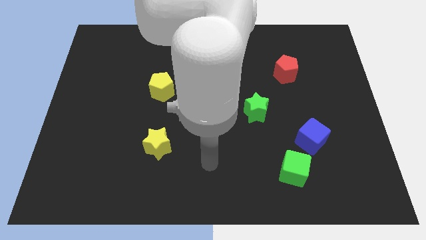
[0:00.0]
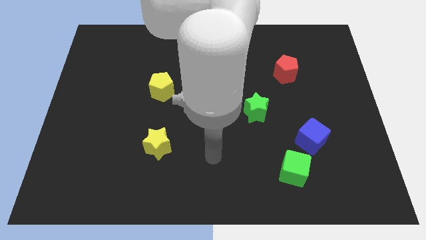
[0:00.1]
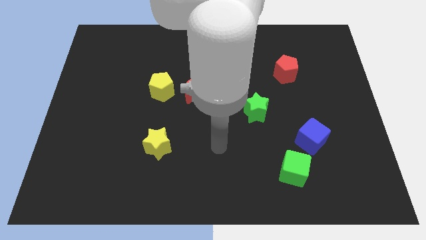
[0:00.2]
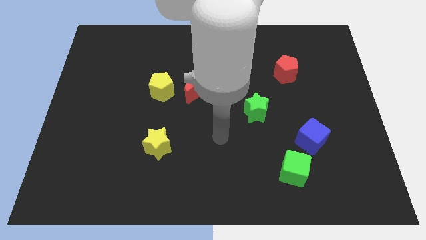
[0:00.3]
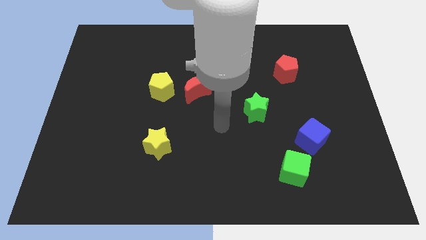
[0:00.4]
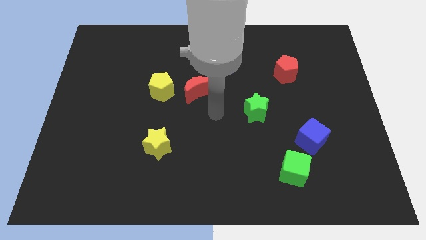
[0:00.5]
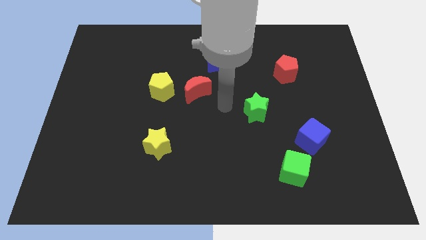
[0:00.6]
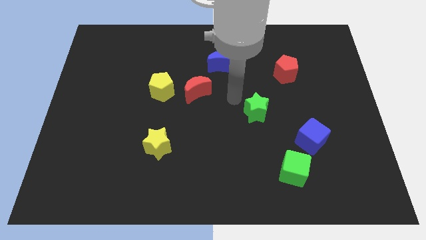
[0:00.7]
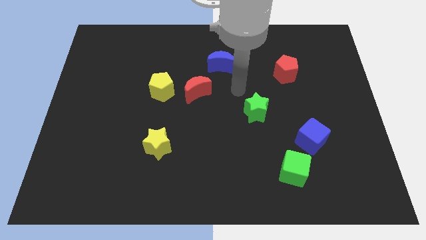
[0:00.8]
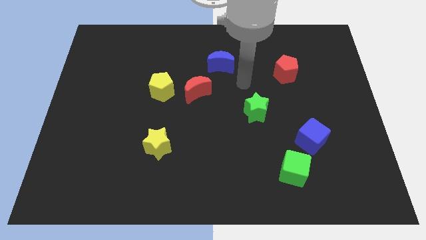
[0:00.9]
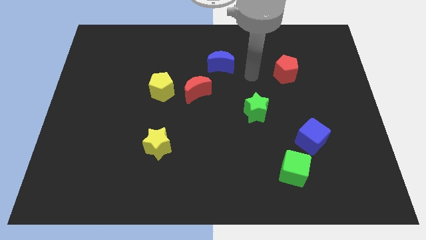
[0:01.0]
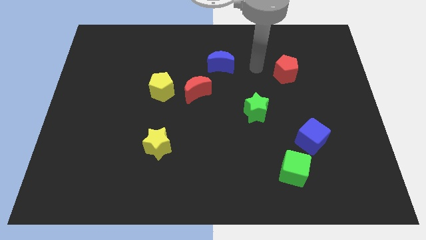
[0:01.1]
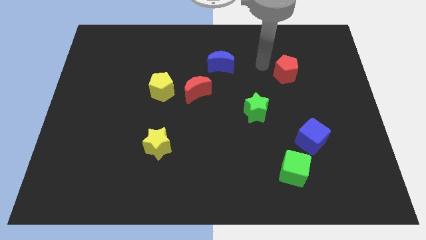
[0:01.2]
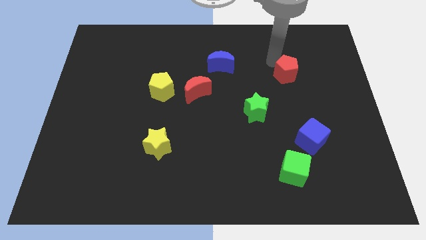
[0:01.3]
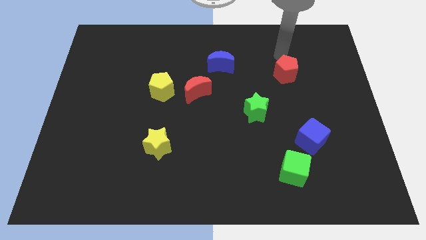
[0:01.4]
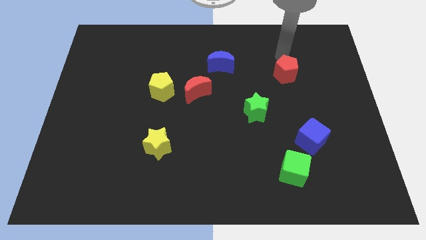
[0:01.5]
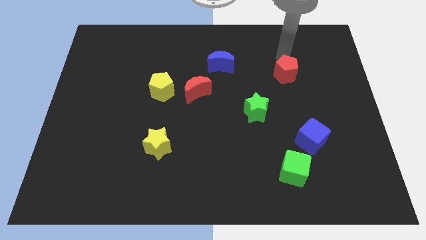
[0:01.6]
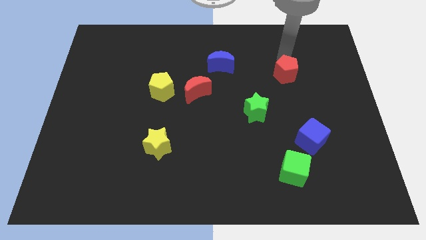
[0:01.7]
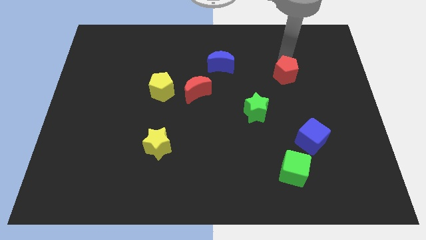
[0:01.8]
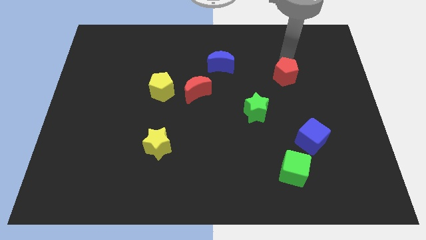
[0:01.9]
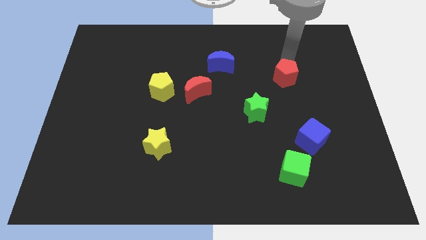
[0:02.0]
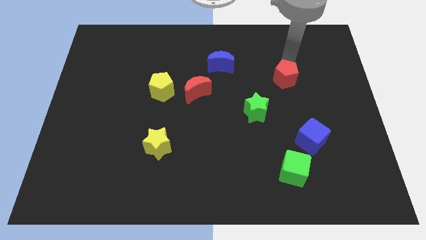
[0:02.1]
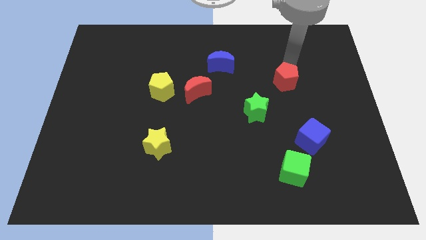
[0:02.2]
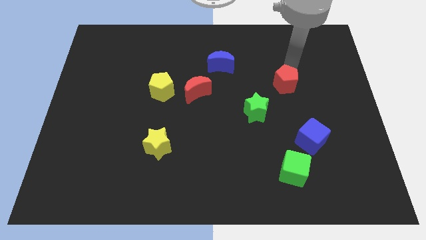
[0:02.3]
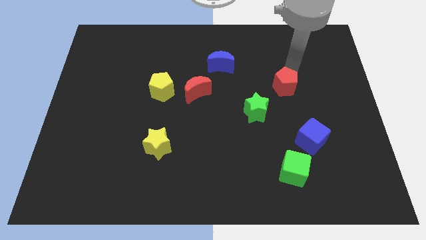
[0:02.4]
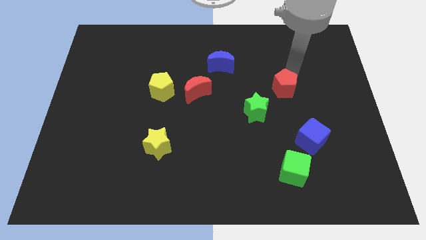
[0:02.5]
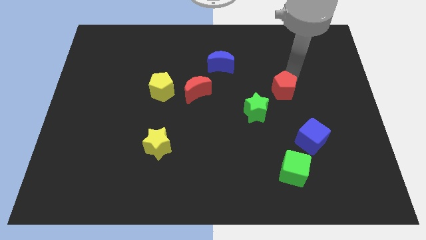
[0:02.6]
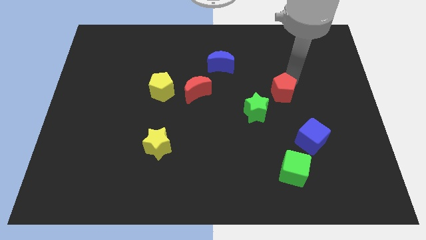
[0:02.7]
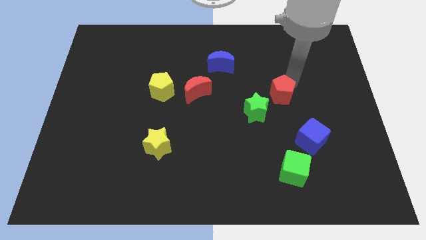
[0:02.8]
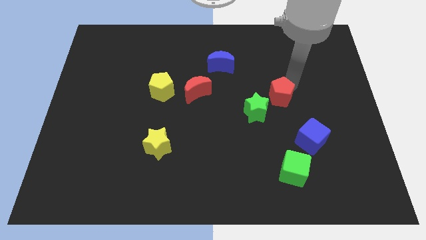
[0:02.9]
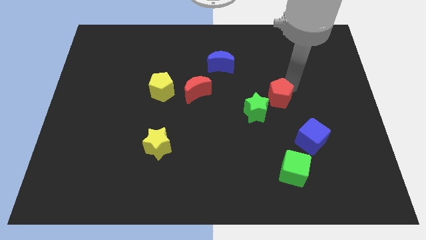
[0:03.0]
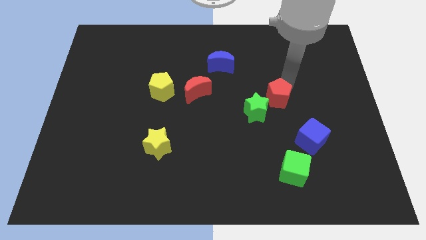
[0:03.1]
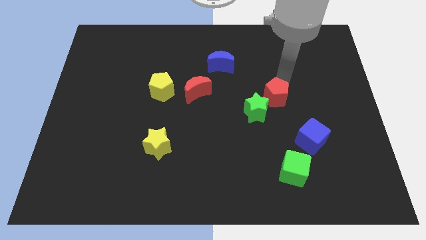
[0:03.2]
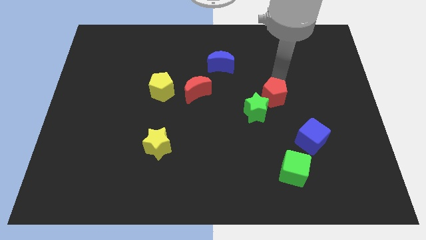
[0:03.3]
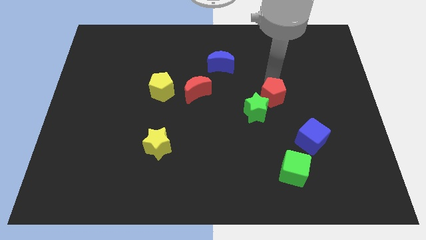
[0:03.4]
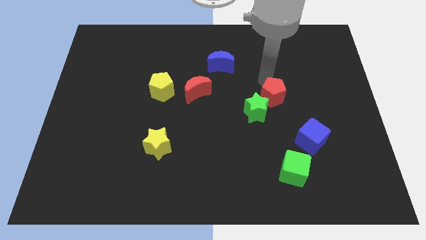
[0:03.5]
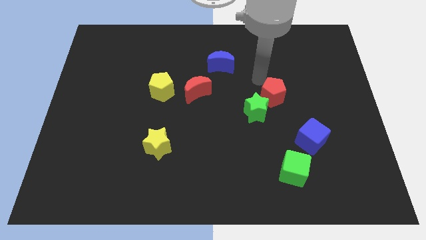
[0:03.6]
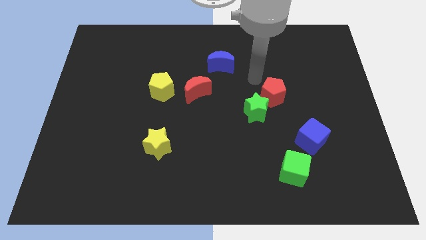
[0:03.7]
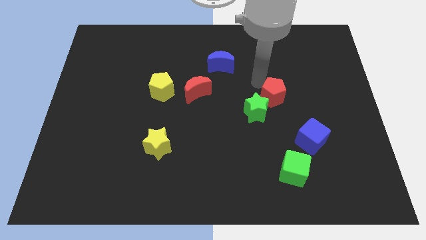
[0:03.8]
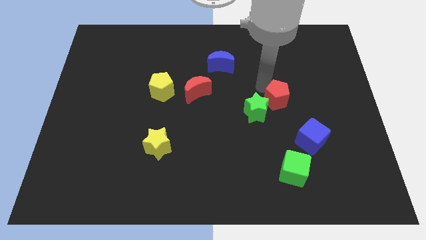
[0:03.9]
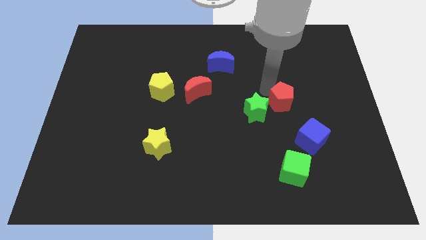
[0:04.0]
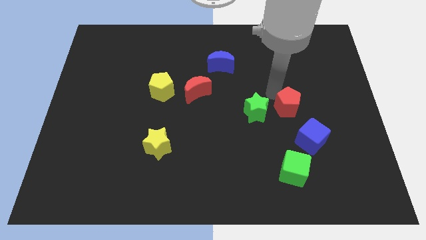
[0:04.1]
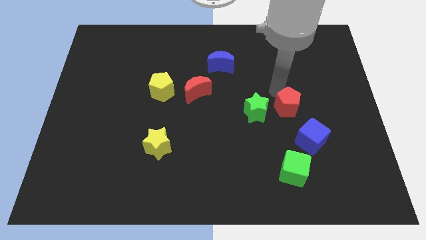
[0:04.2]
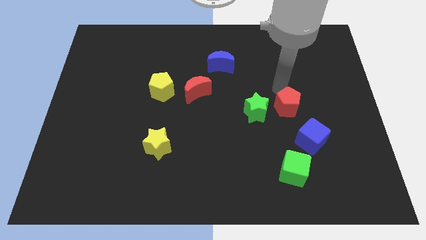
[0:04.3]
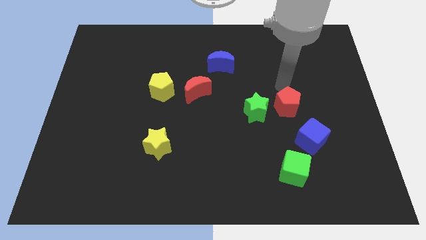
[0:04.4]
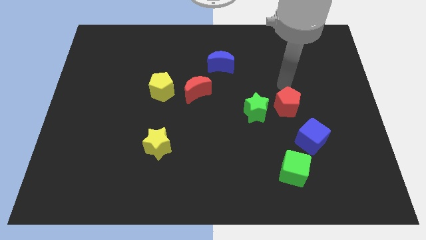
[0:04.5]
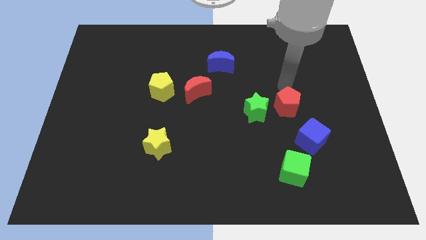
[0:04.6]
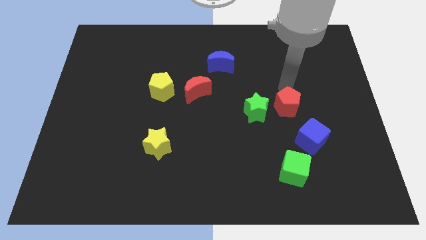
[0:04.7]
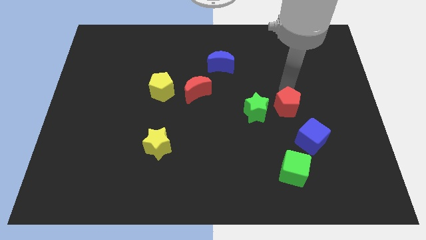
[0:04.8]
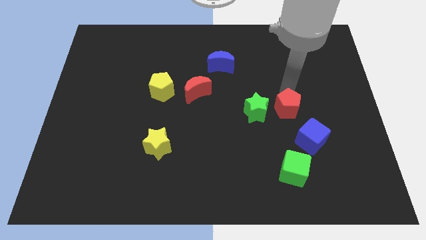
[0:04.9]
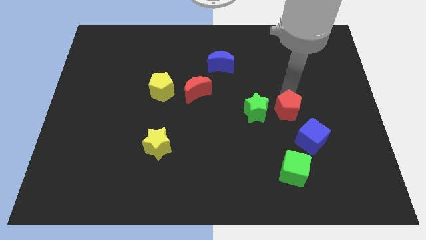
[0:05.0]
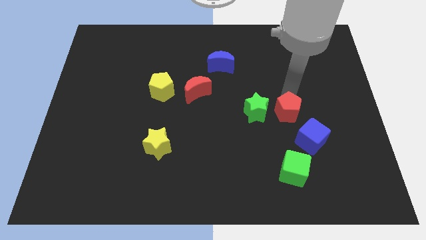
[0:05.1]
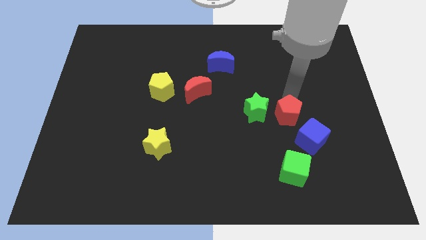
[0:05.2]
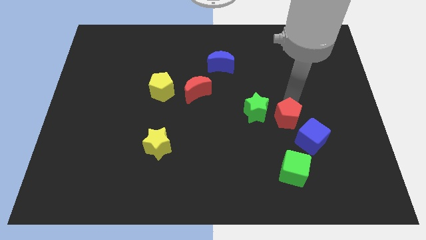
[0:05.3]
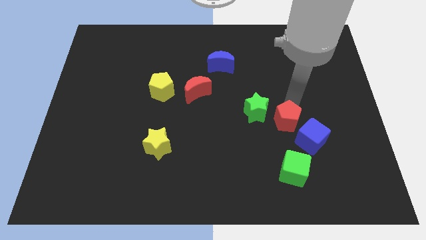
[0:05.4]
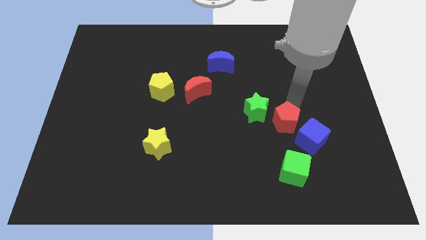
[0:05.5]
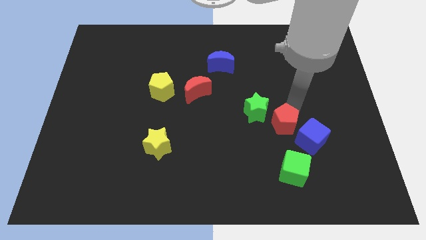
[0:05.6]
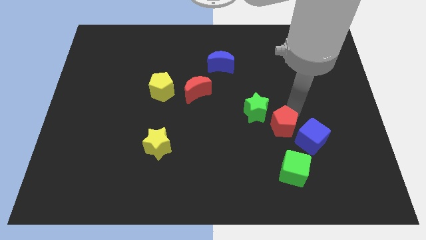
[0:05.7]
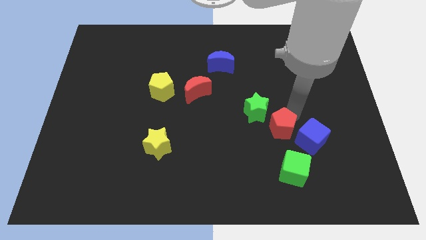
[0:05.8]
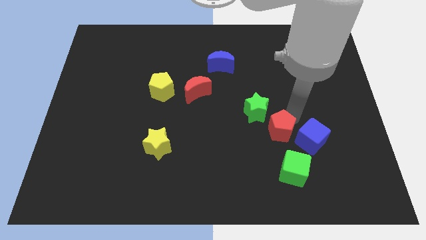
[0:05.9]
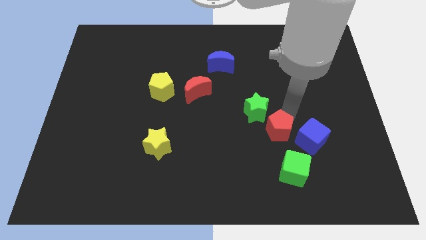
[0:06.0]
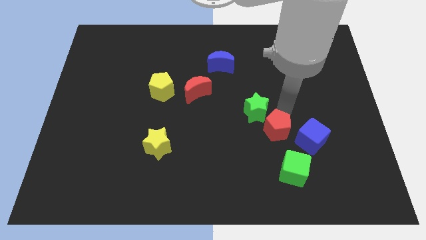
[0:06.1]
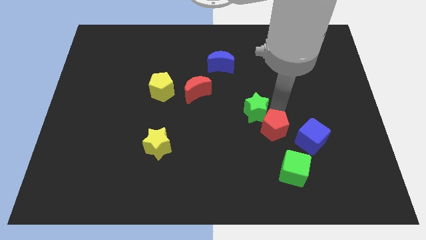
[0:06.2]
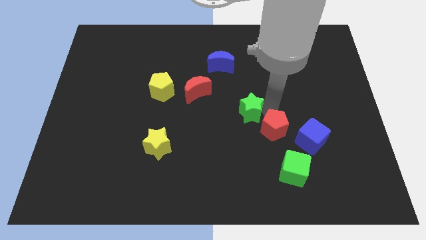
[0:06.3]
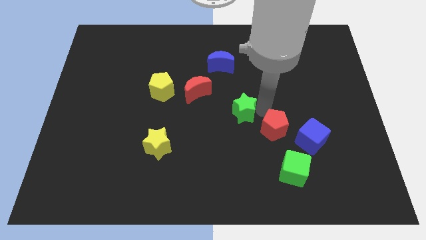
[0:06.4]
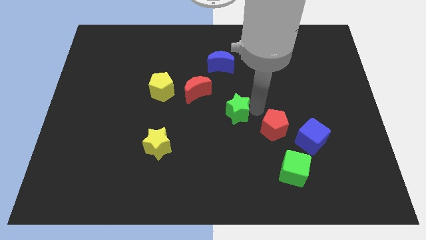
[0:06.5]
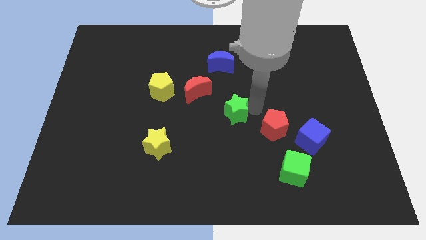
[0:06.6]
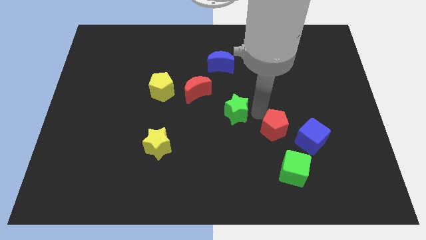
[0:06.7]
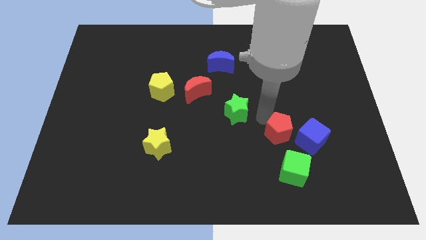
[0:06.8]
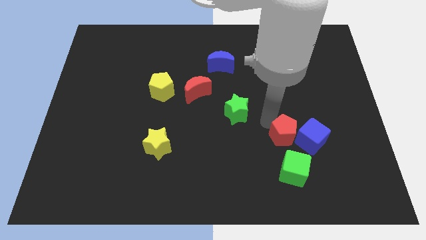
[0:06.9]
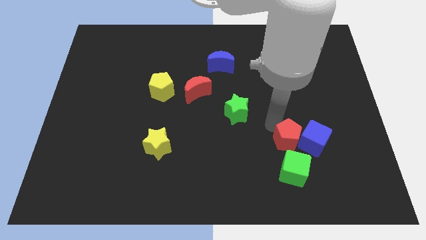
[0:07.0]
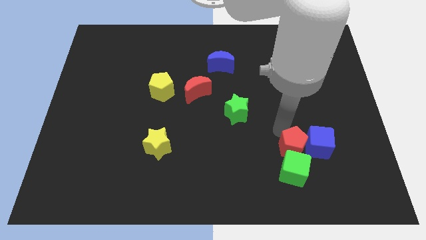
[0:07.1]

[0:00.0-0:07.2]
move the red pentagon to the green cube

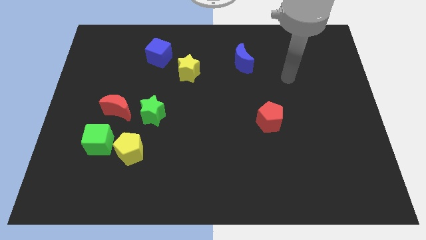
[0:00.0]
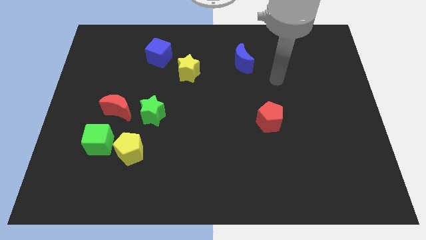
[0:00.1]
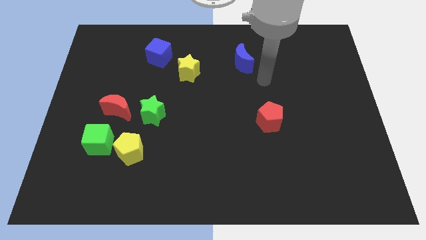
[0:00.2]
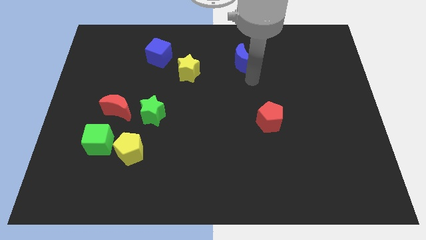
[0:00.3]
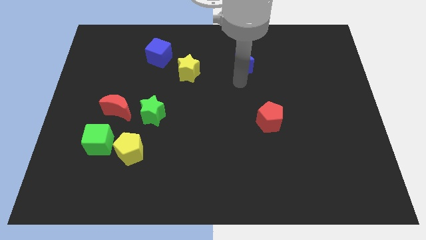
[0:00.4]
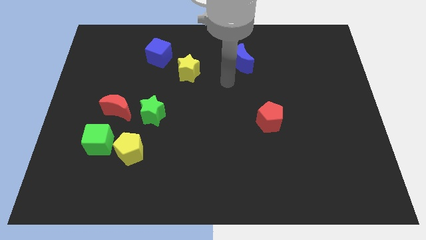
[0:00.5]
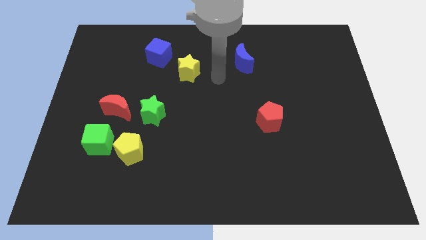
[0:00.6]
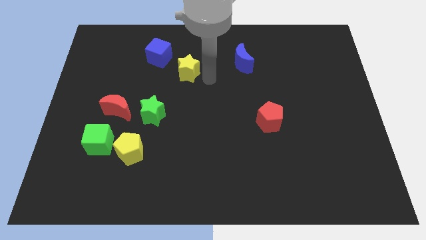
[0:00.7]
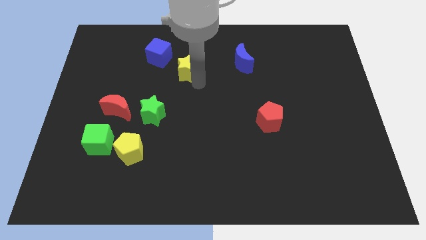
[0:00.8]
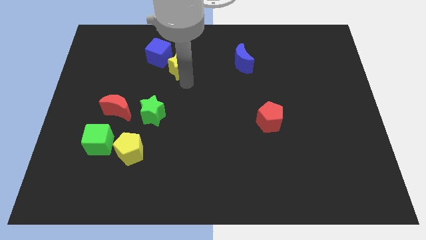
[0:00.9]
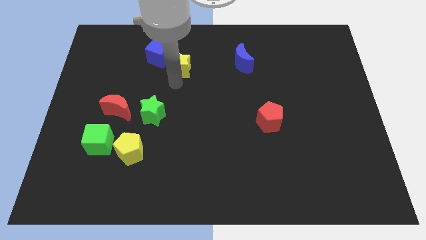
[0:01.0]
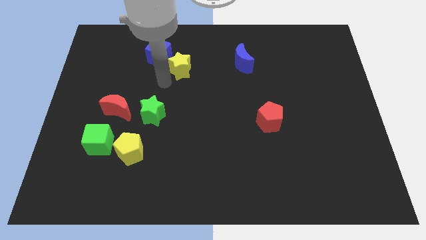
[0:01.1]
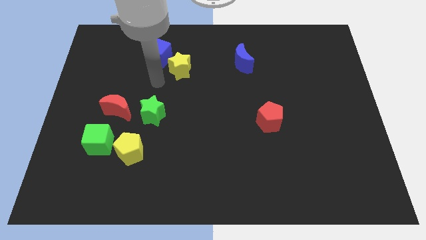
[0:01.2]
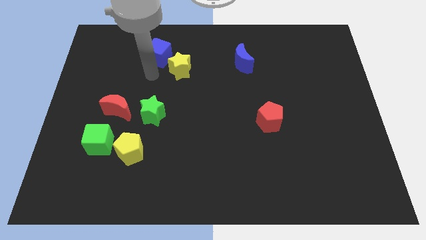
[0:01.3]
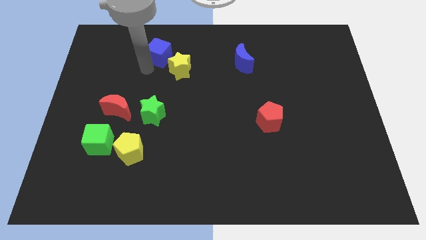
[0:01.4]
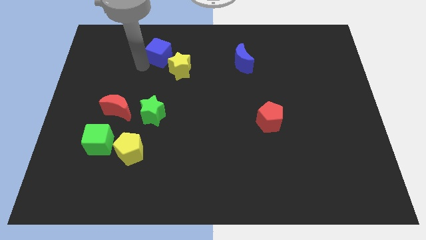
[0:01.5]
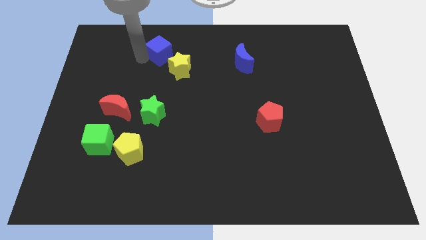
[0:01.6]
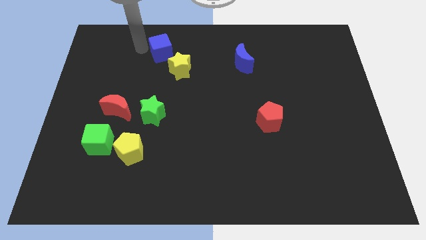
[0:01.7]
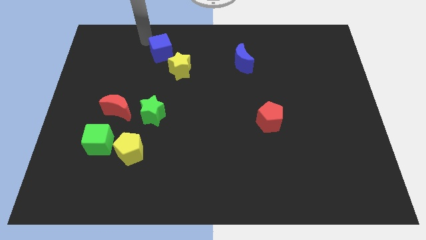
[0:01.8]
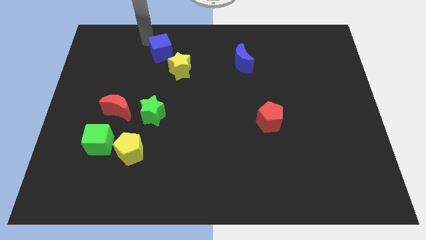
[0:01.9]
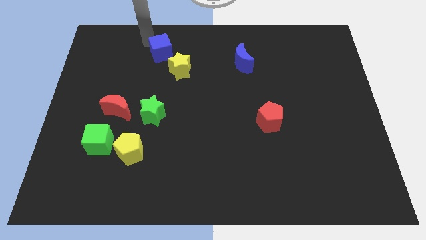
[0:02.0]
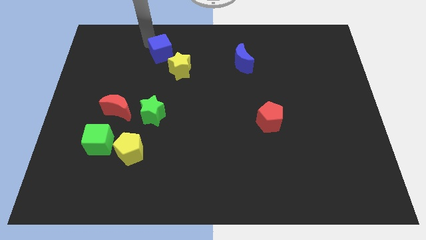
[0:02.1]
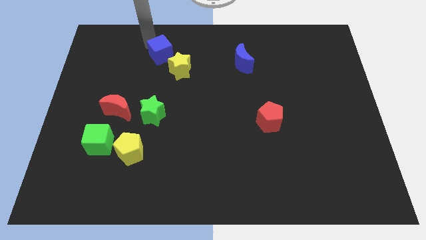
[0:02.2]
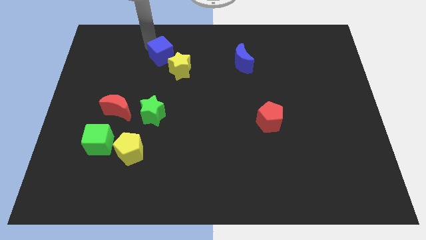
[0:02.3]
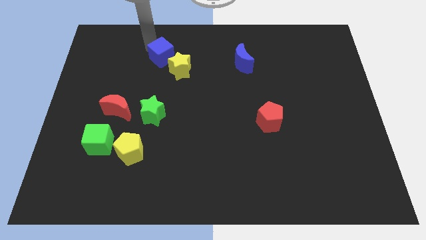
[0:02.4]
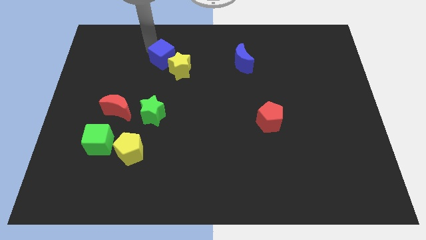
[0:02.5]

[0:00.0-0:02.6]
put the blue cube close to the yellow star
